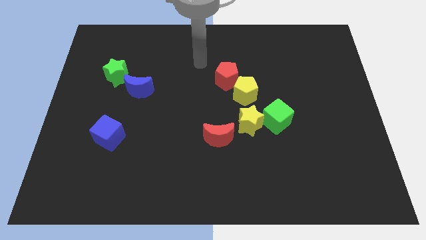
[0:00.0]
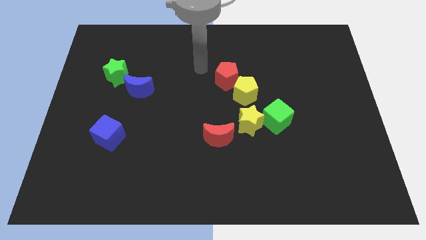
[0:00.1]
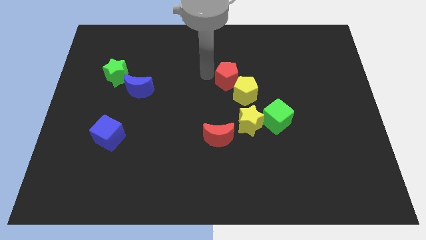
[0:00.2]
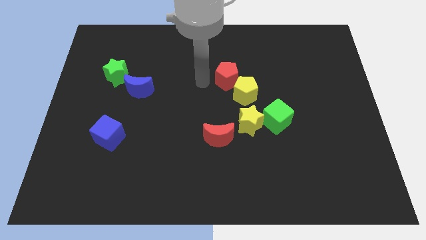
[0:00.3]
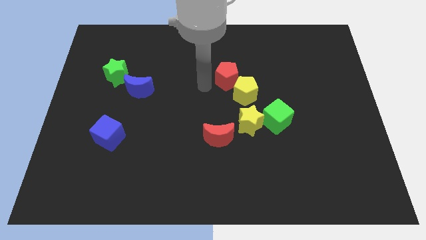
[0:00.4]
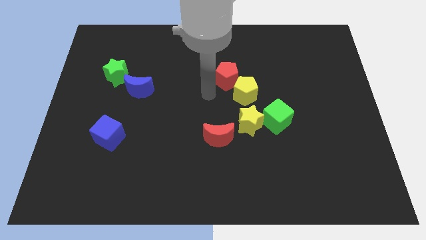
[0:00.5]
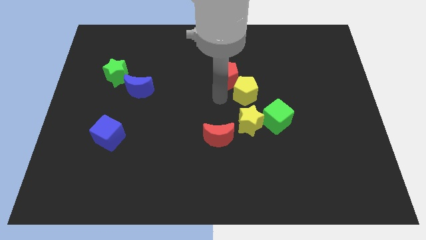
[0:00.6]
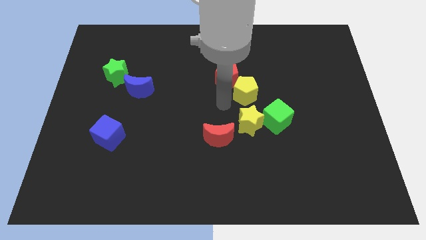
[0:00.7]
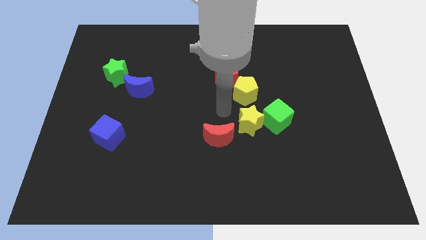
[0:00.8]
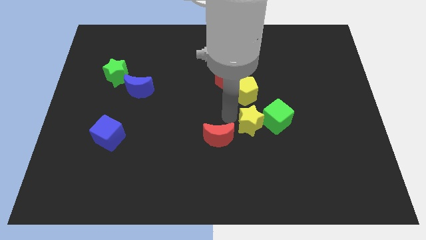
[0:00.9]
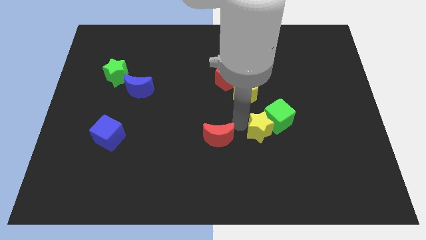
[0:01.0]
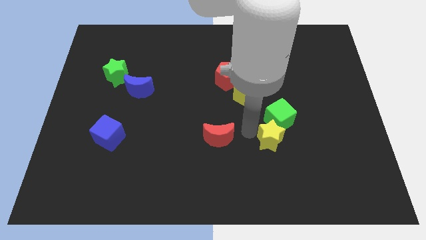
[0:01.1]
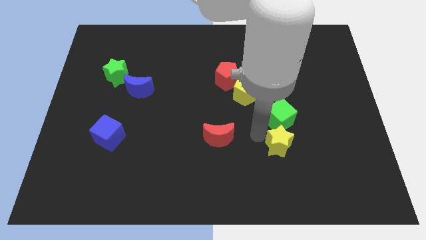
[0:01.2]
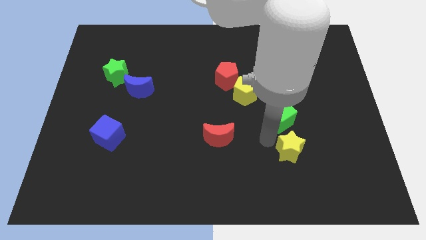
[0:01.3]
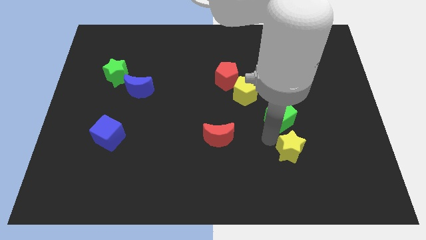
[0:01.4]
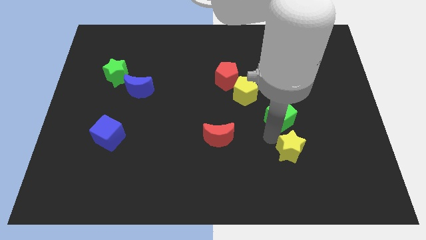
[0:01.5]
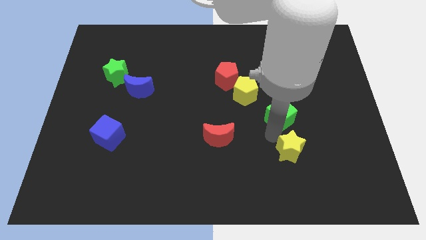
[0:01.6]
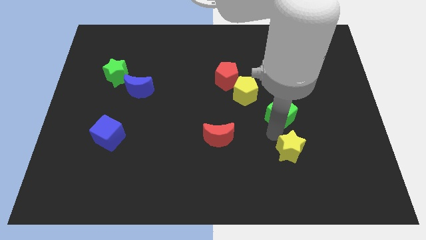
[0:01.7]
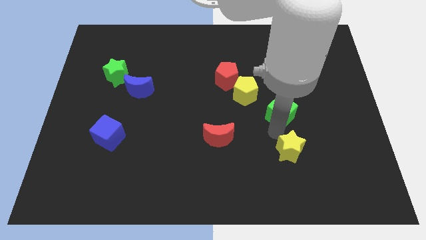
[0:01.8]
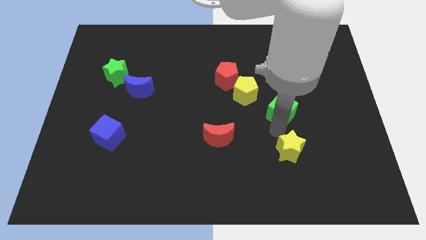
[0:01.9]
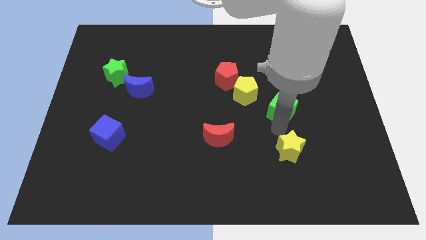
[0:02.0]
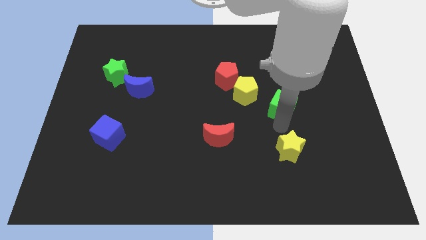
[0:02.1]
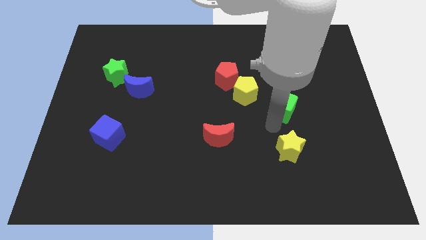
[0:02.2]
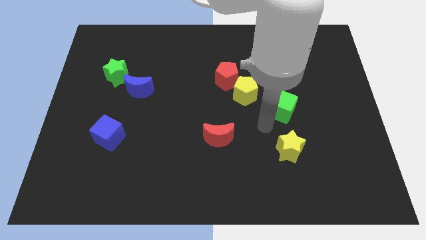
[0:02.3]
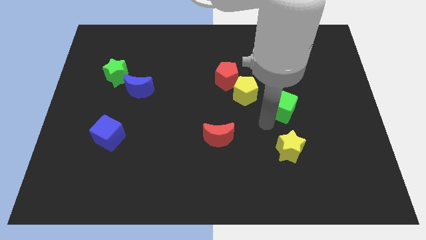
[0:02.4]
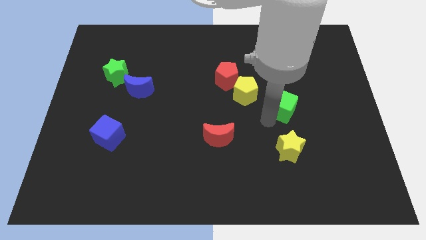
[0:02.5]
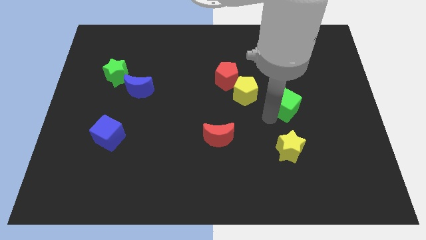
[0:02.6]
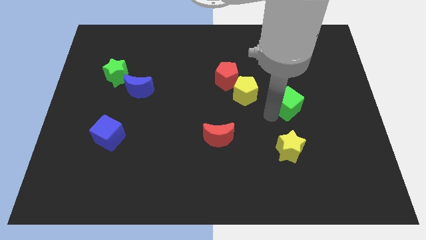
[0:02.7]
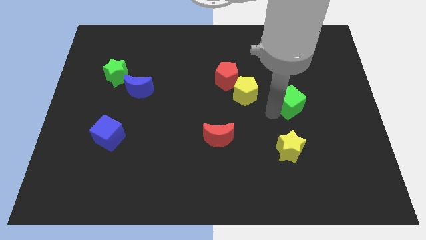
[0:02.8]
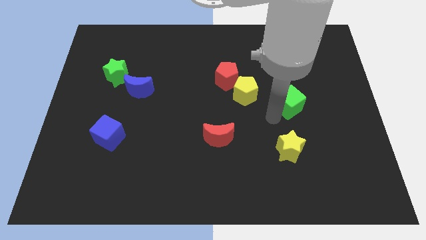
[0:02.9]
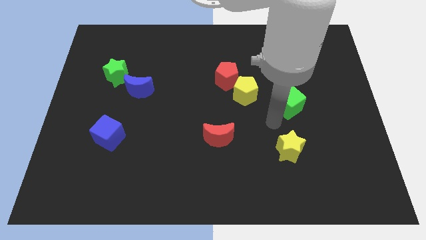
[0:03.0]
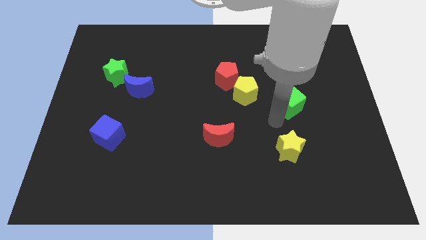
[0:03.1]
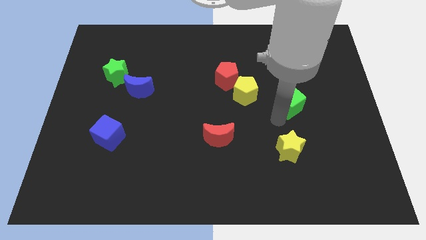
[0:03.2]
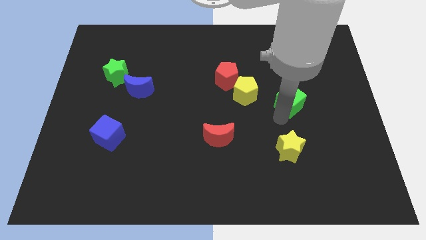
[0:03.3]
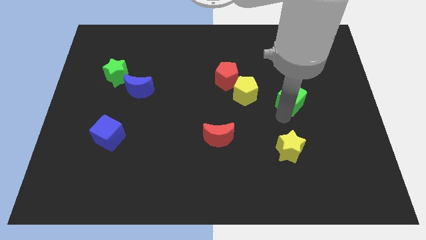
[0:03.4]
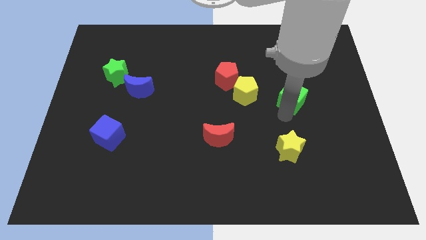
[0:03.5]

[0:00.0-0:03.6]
push the green cube a little up and to the right

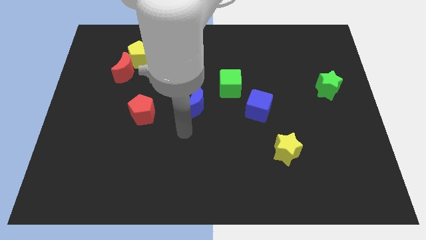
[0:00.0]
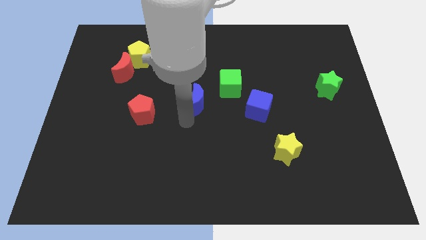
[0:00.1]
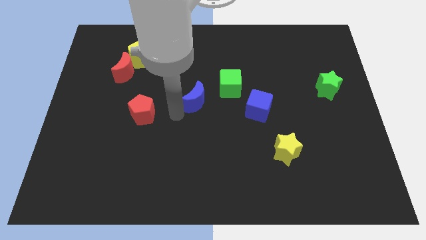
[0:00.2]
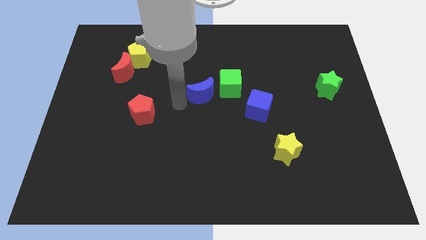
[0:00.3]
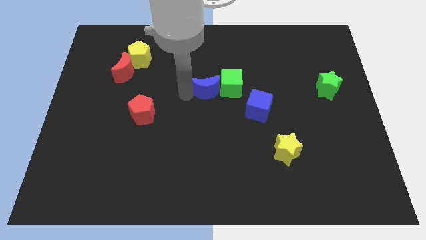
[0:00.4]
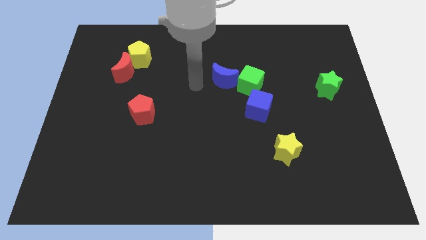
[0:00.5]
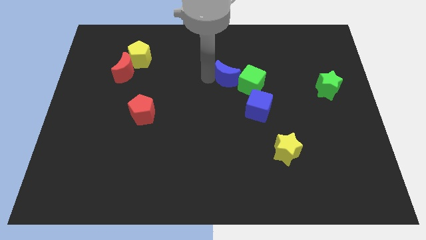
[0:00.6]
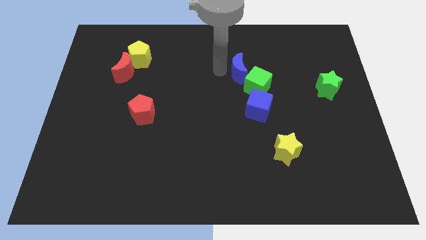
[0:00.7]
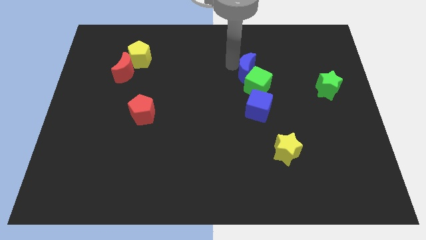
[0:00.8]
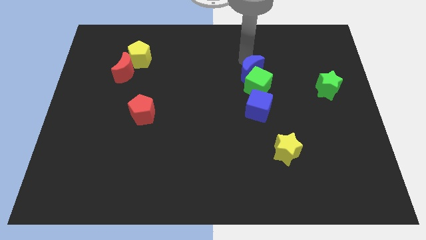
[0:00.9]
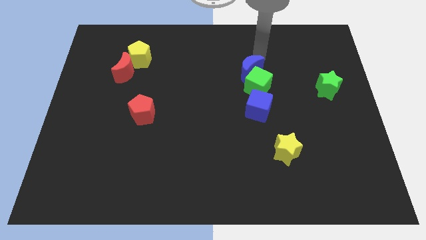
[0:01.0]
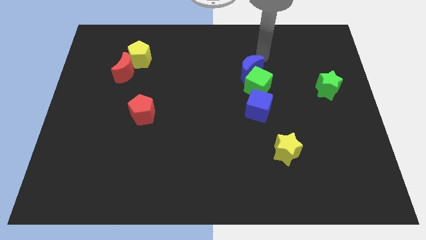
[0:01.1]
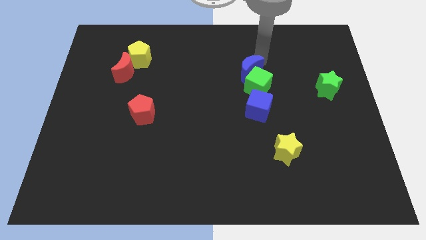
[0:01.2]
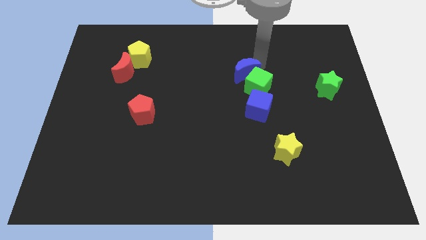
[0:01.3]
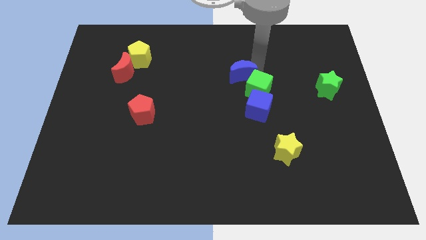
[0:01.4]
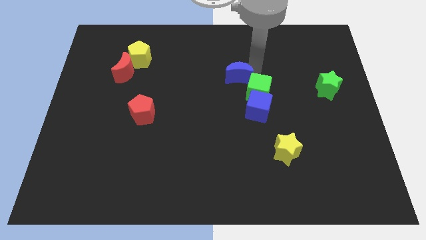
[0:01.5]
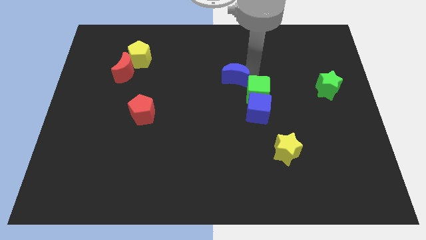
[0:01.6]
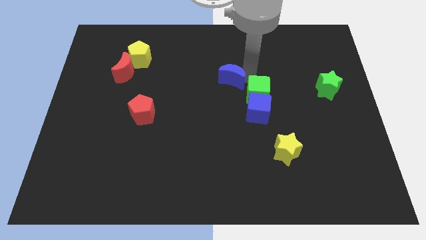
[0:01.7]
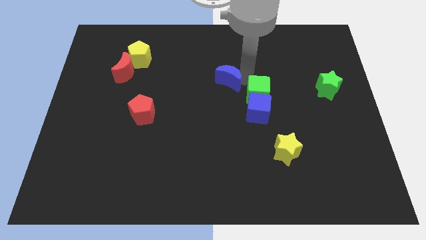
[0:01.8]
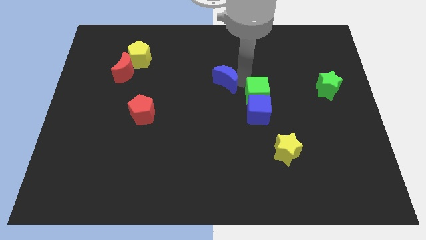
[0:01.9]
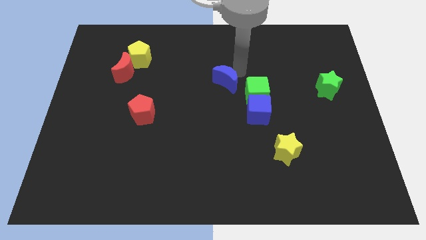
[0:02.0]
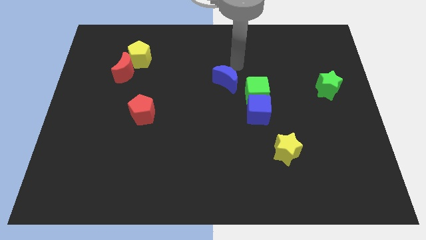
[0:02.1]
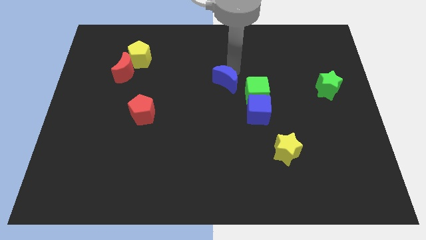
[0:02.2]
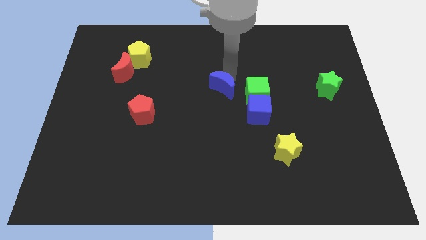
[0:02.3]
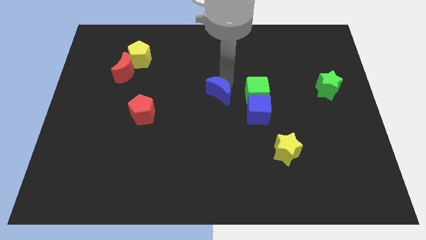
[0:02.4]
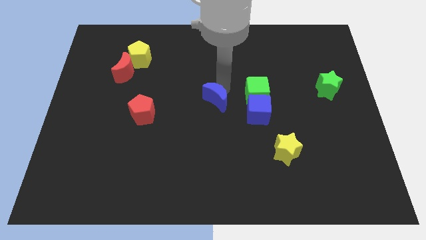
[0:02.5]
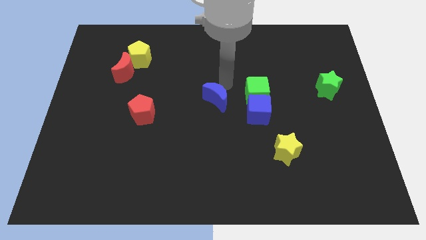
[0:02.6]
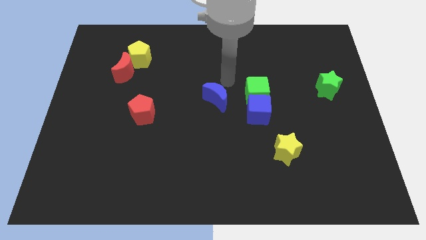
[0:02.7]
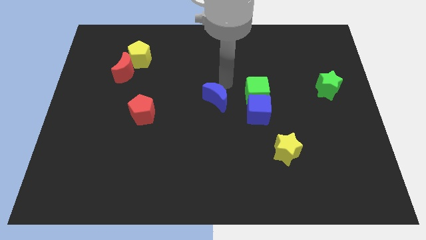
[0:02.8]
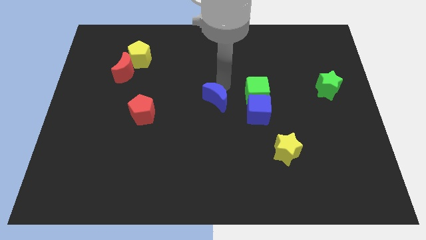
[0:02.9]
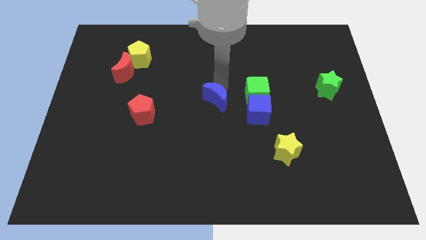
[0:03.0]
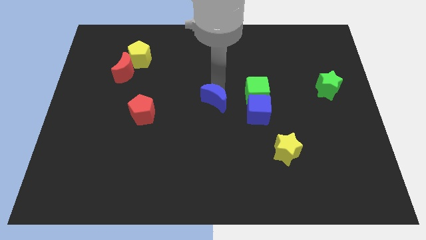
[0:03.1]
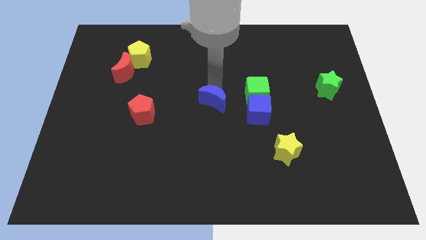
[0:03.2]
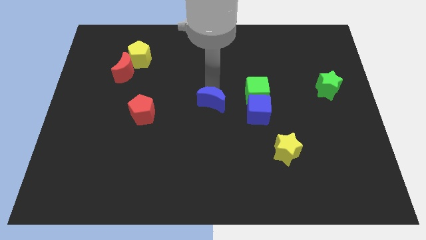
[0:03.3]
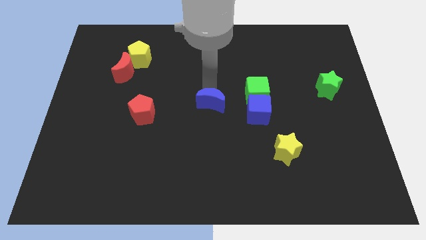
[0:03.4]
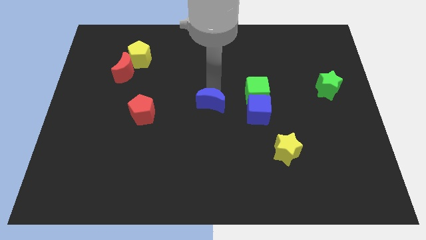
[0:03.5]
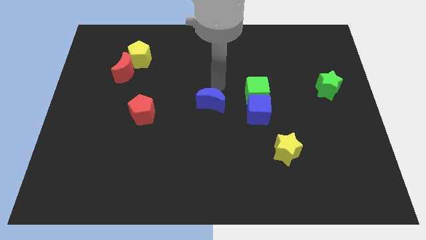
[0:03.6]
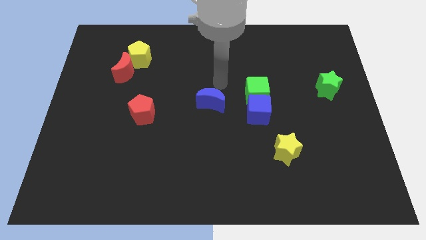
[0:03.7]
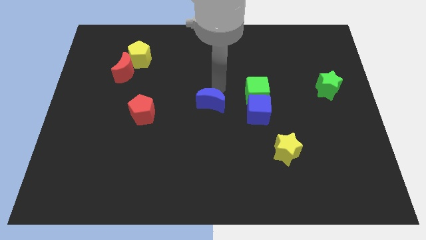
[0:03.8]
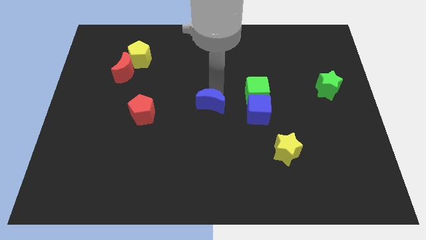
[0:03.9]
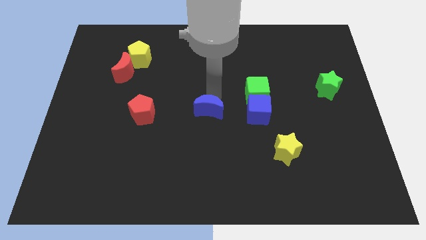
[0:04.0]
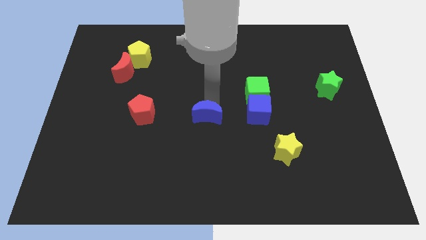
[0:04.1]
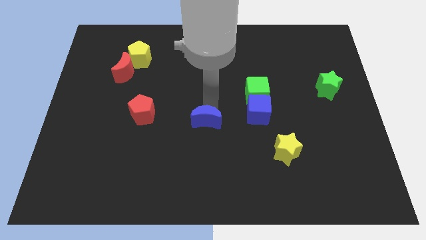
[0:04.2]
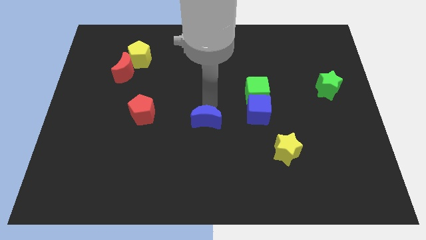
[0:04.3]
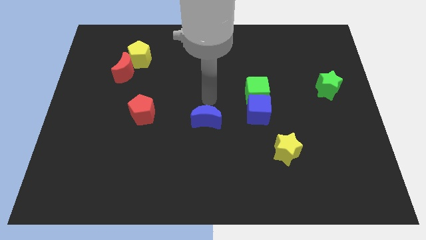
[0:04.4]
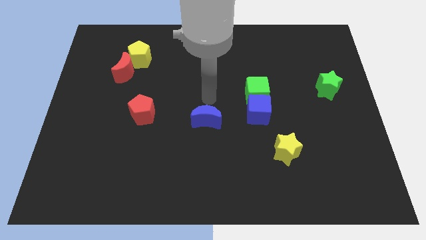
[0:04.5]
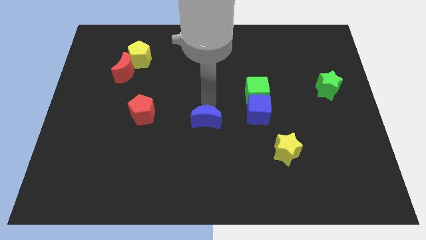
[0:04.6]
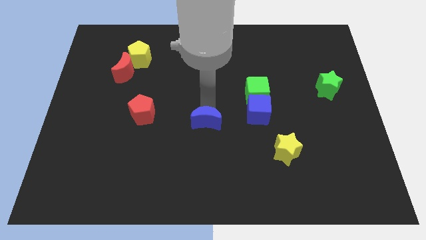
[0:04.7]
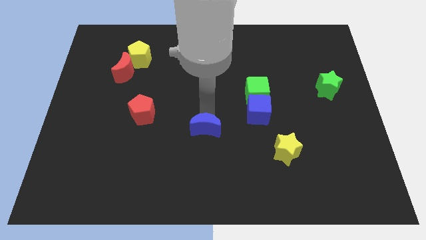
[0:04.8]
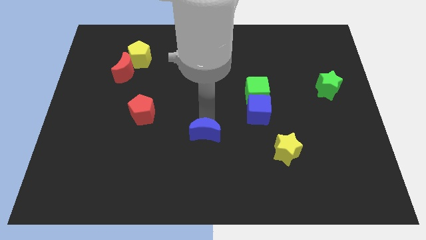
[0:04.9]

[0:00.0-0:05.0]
slightly move the blue moon down
